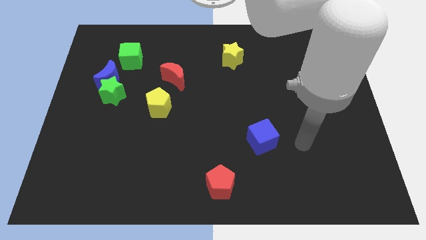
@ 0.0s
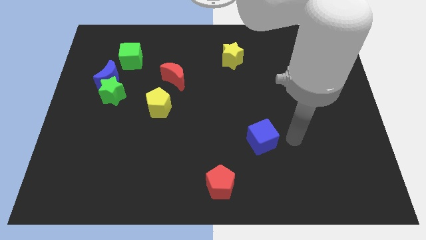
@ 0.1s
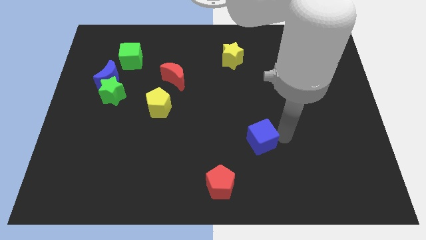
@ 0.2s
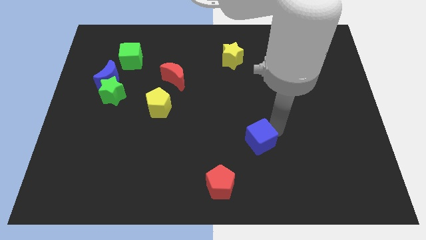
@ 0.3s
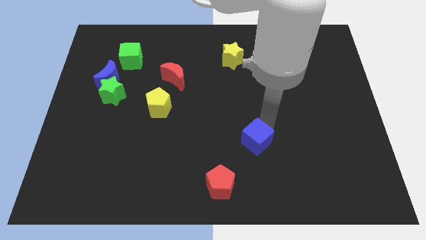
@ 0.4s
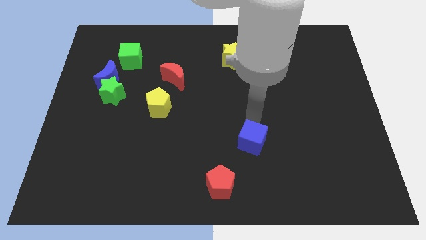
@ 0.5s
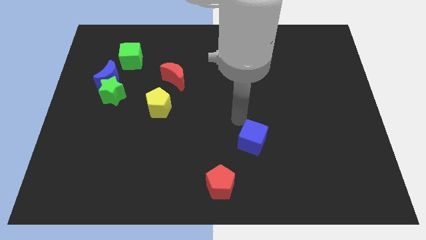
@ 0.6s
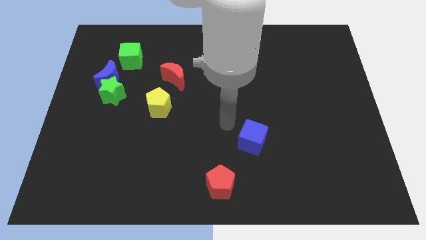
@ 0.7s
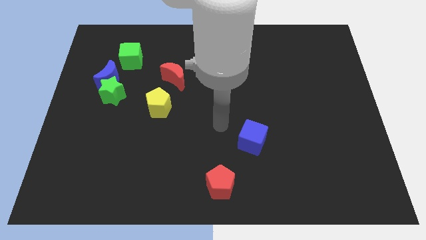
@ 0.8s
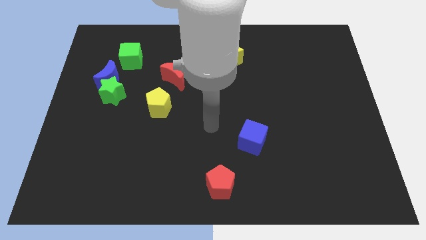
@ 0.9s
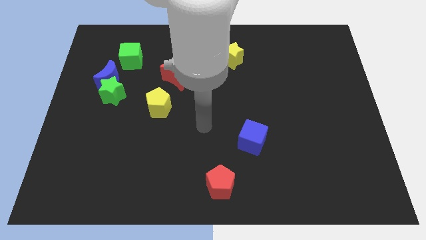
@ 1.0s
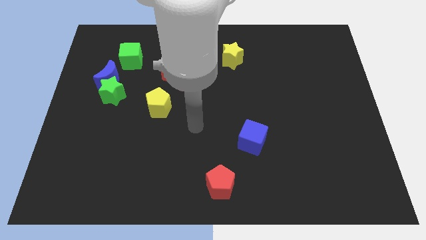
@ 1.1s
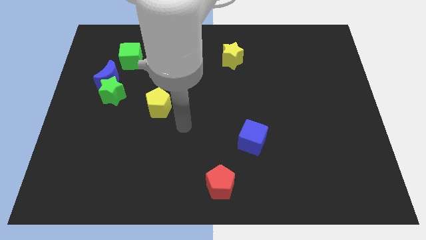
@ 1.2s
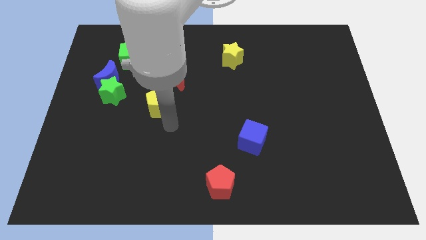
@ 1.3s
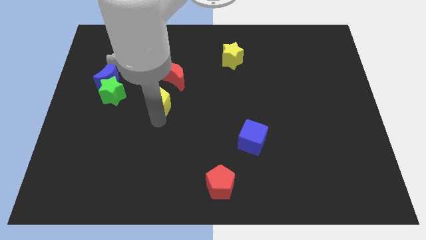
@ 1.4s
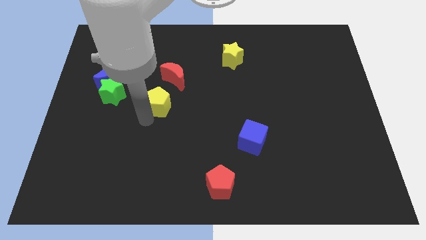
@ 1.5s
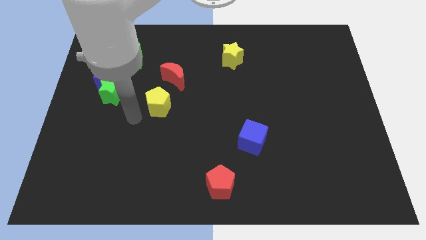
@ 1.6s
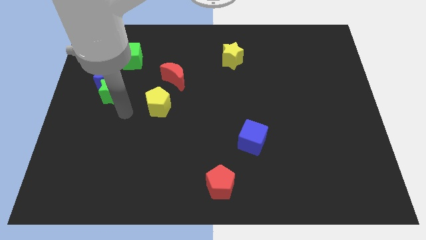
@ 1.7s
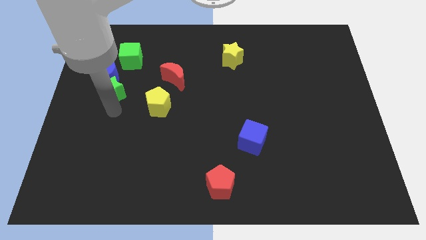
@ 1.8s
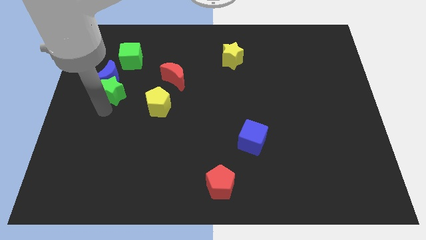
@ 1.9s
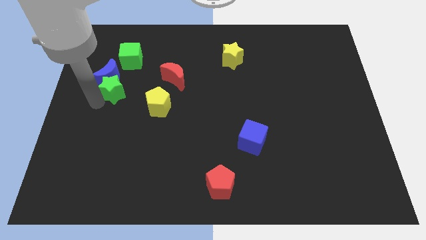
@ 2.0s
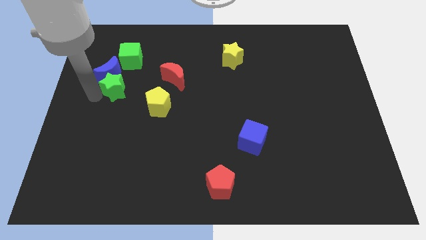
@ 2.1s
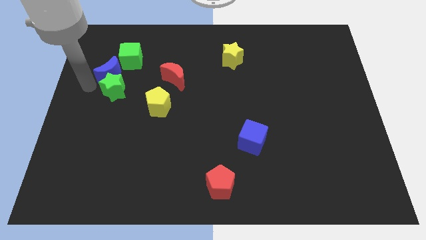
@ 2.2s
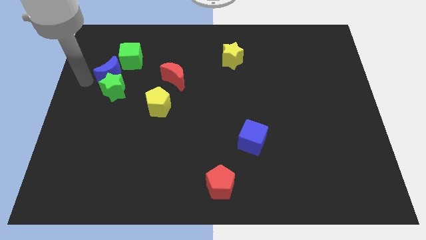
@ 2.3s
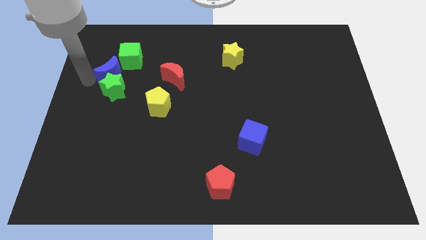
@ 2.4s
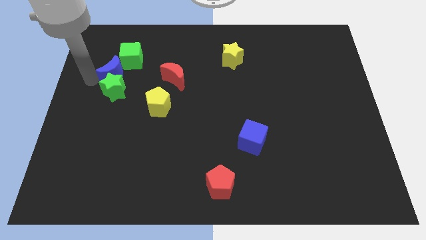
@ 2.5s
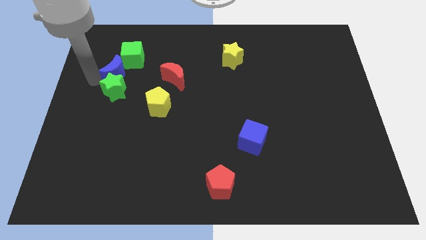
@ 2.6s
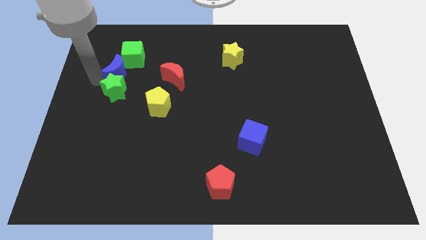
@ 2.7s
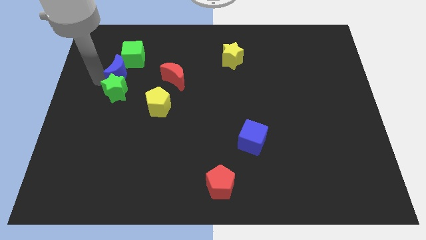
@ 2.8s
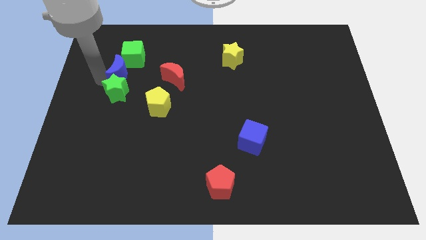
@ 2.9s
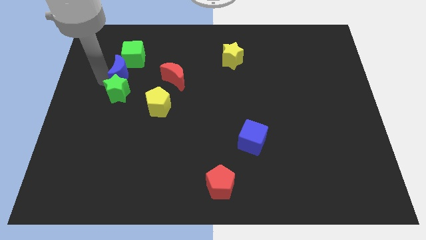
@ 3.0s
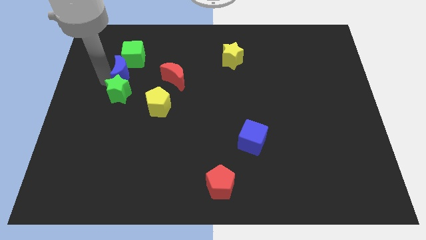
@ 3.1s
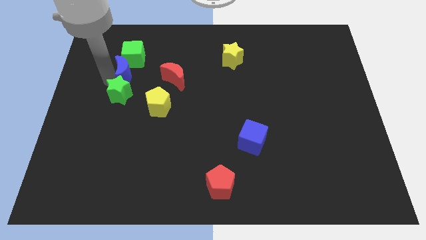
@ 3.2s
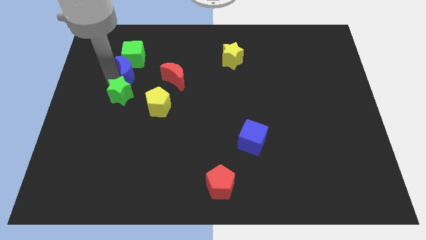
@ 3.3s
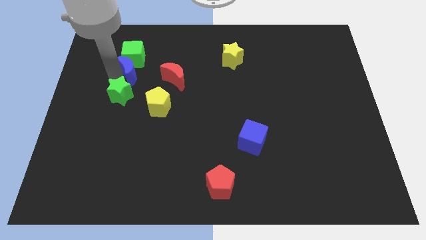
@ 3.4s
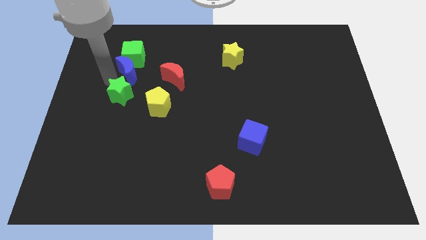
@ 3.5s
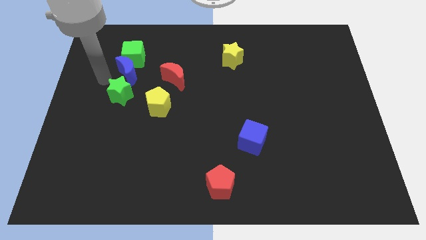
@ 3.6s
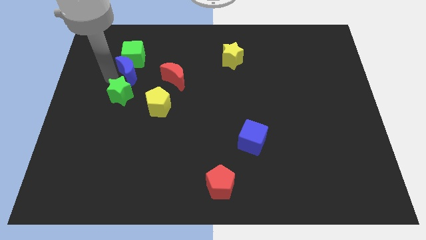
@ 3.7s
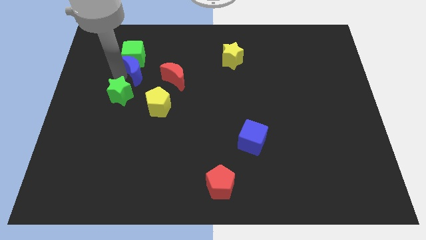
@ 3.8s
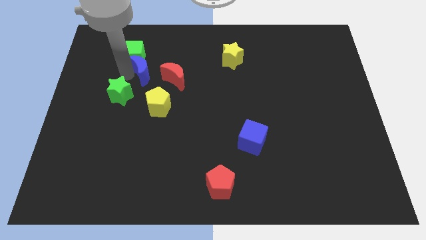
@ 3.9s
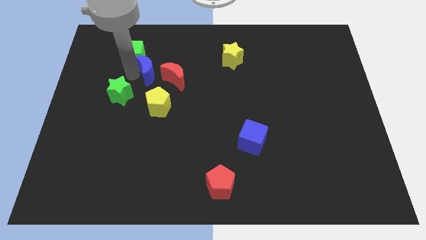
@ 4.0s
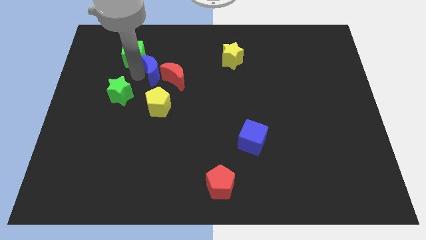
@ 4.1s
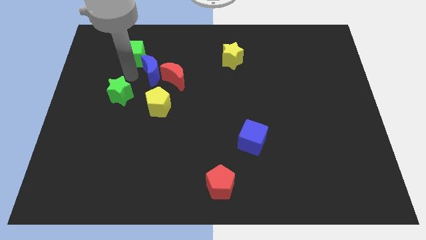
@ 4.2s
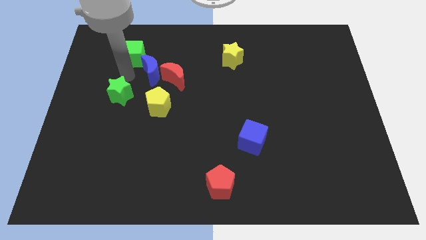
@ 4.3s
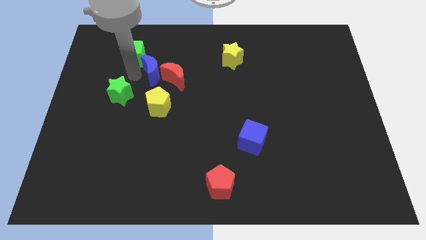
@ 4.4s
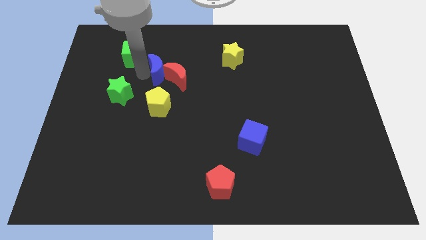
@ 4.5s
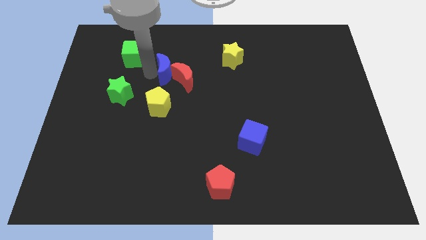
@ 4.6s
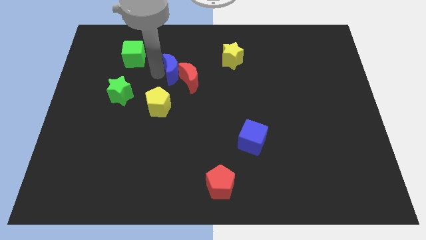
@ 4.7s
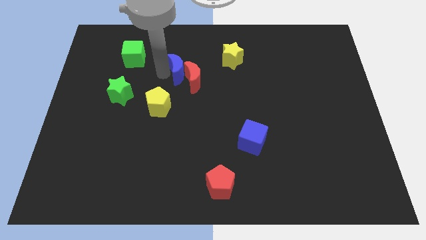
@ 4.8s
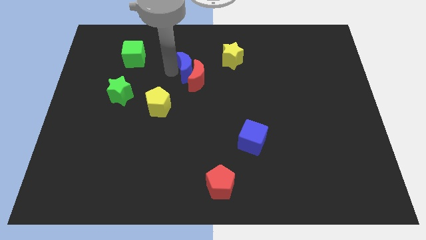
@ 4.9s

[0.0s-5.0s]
put the blue moon to the middle of the board

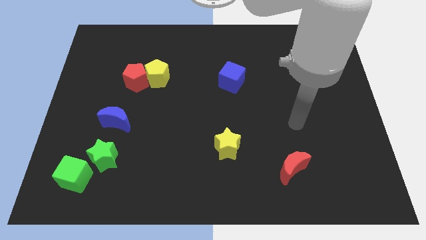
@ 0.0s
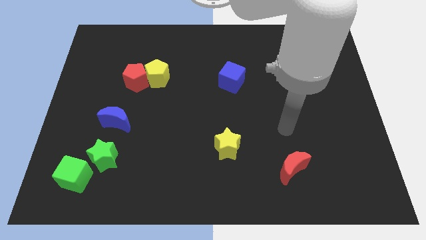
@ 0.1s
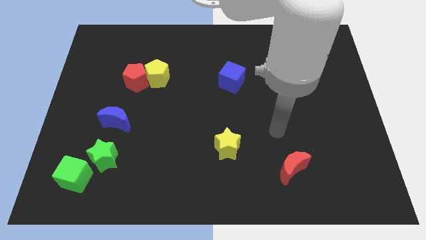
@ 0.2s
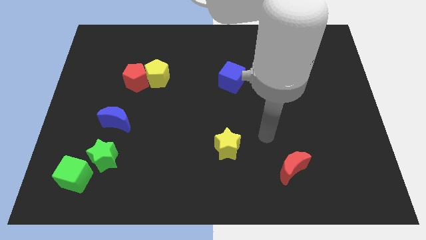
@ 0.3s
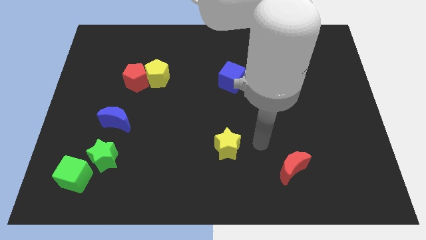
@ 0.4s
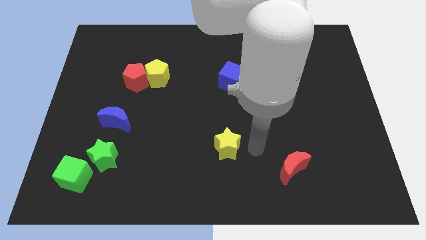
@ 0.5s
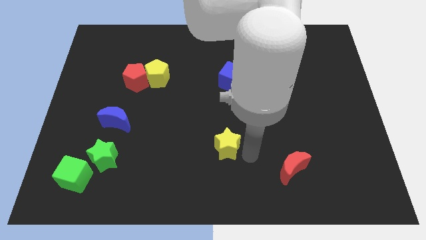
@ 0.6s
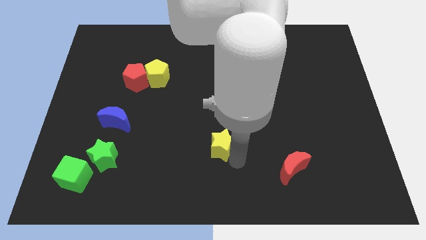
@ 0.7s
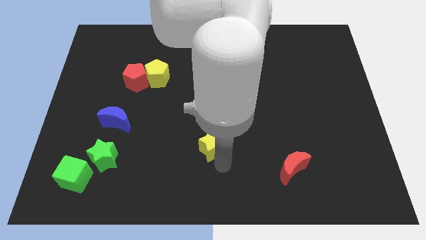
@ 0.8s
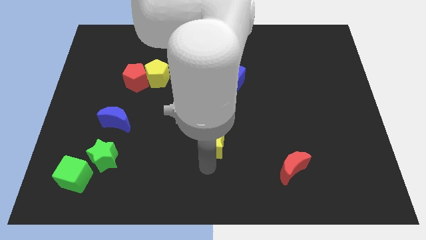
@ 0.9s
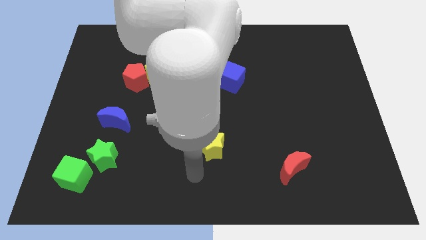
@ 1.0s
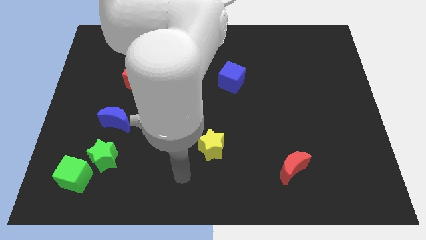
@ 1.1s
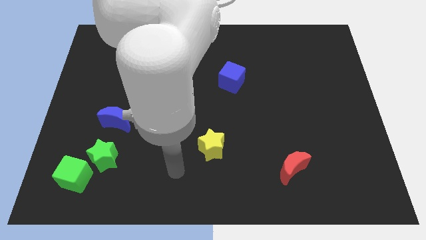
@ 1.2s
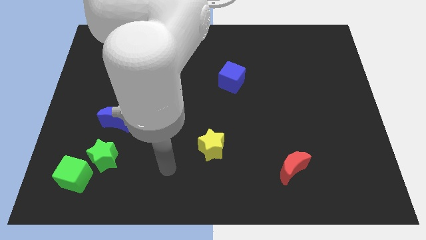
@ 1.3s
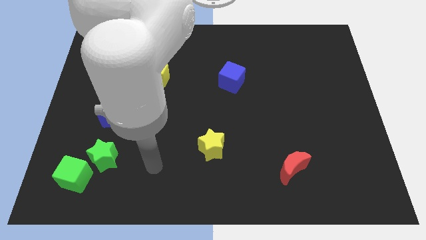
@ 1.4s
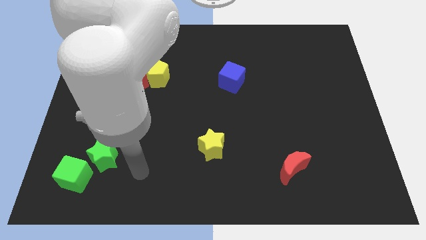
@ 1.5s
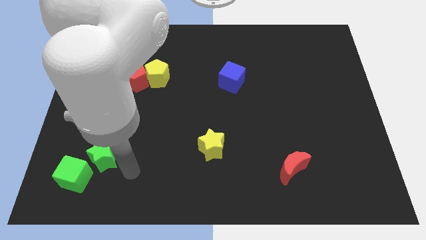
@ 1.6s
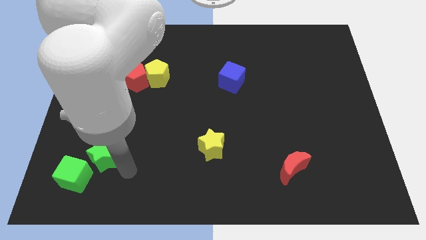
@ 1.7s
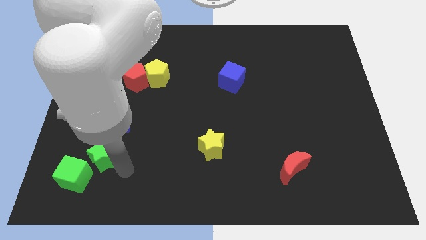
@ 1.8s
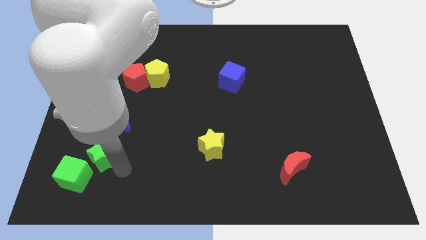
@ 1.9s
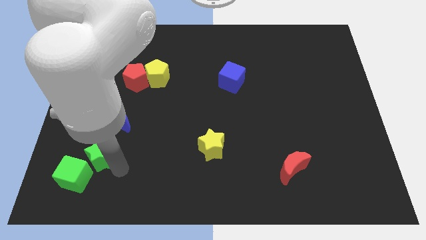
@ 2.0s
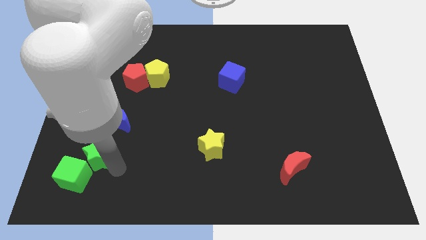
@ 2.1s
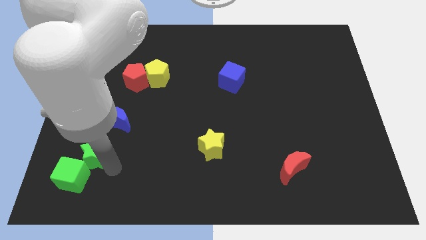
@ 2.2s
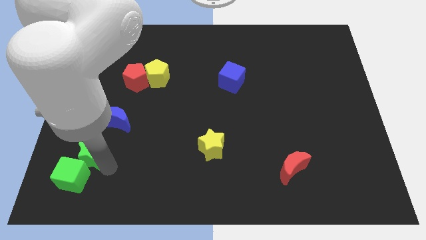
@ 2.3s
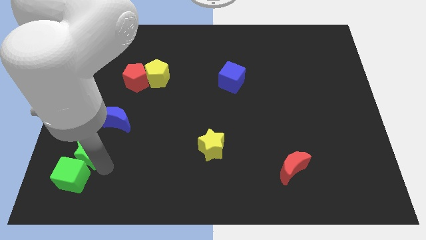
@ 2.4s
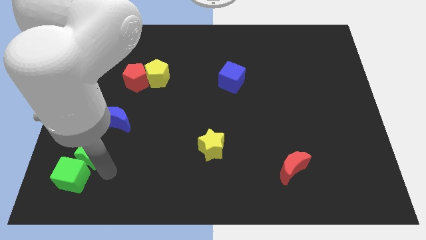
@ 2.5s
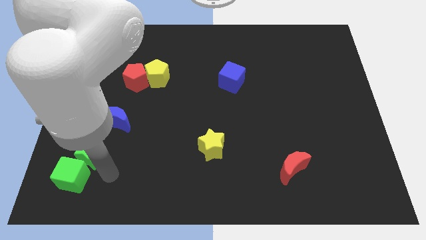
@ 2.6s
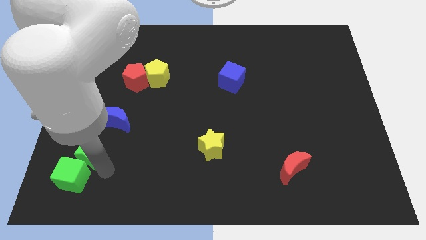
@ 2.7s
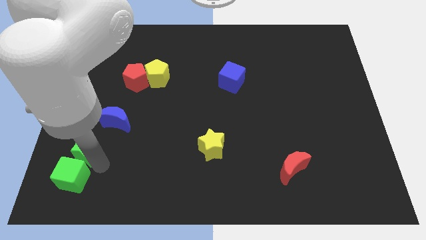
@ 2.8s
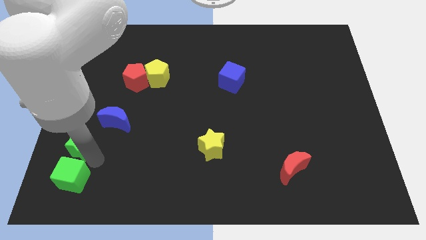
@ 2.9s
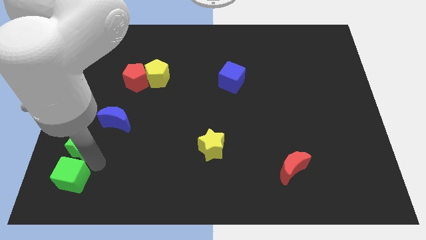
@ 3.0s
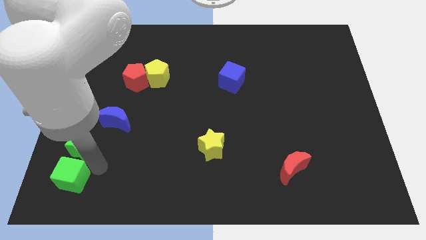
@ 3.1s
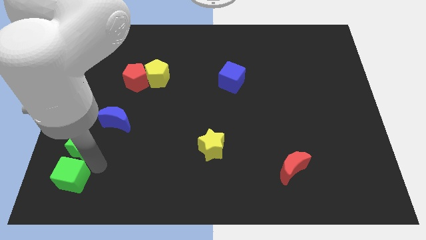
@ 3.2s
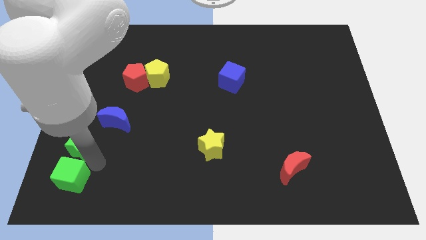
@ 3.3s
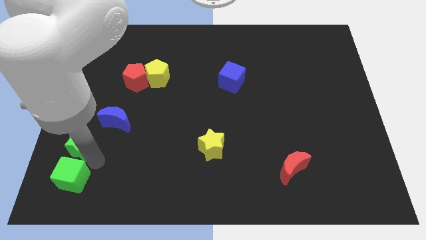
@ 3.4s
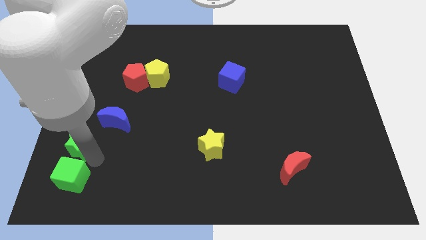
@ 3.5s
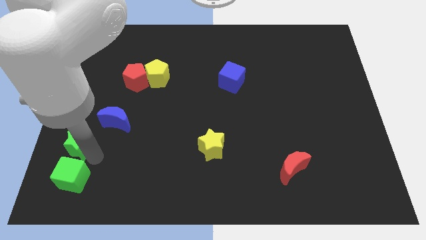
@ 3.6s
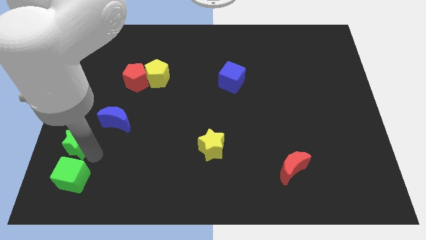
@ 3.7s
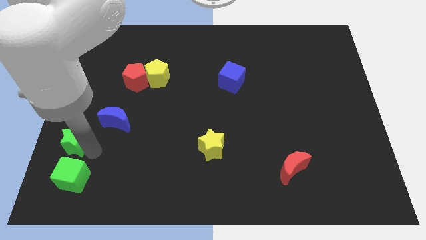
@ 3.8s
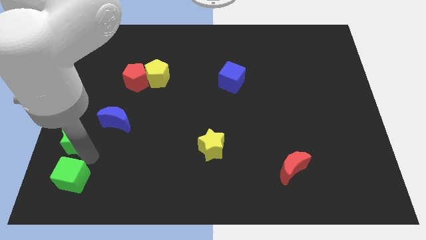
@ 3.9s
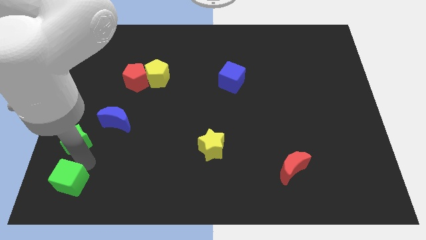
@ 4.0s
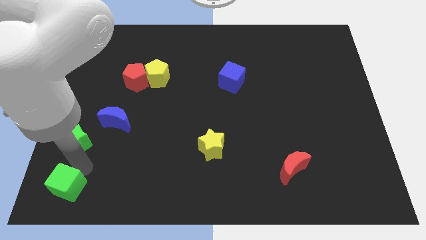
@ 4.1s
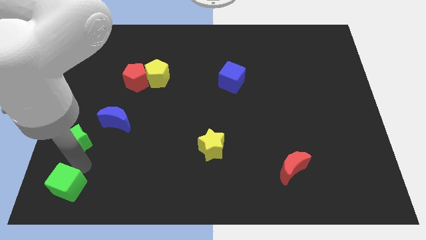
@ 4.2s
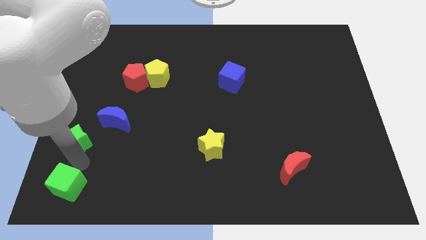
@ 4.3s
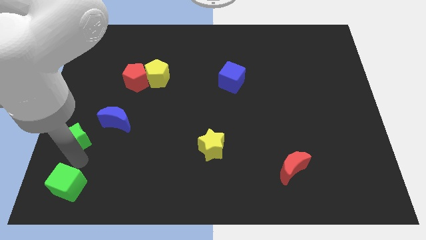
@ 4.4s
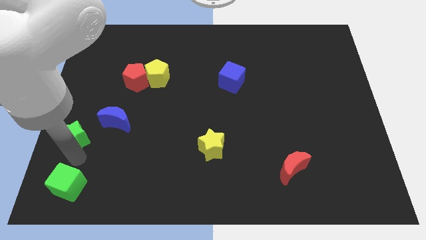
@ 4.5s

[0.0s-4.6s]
put the green star to the center left
